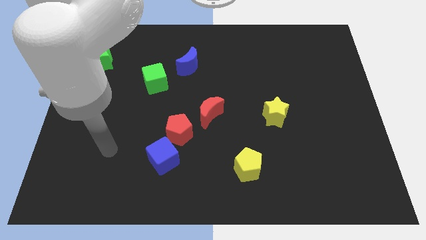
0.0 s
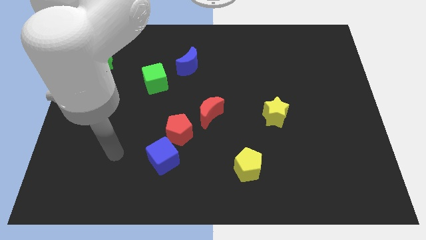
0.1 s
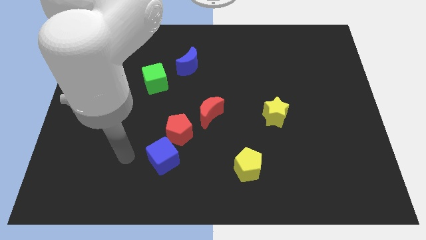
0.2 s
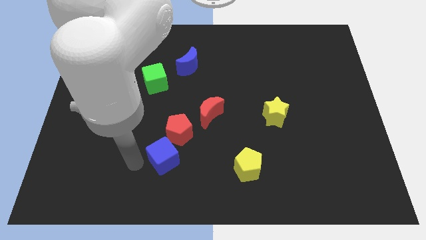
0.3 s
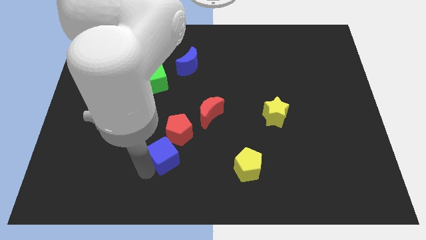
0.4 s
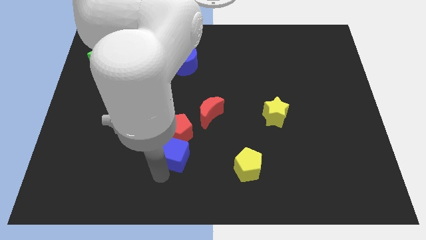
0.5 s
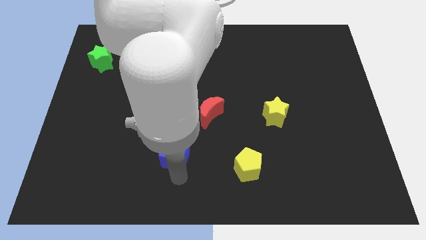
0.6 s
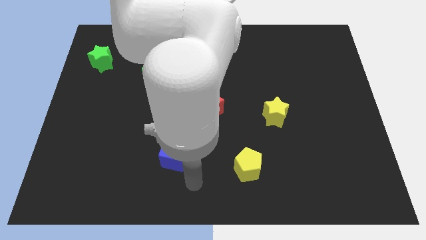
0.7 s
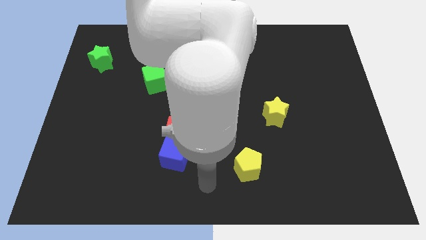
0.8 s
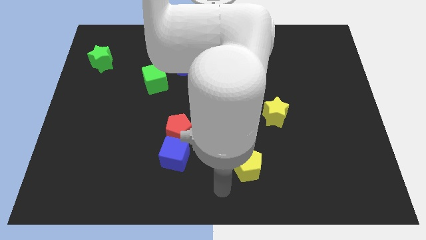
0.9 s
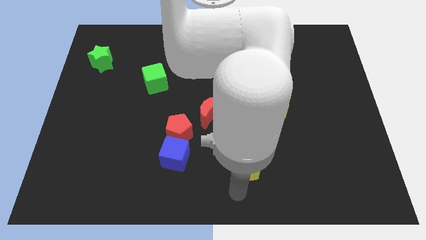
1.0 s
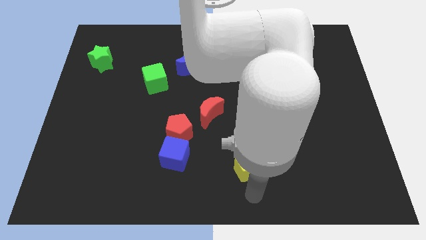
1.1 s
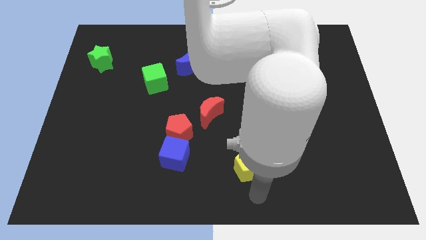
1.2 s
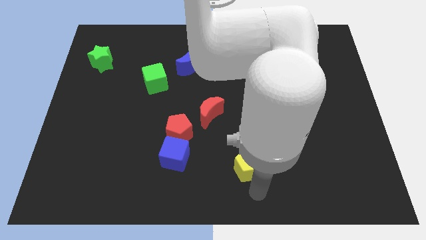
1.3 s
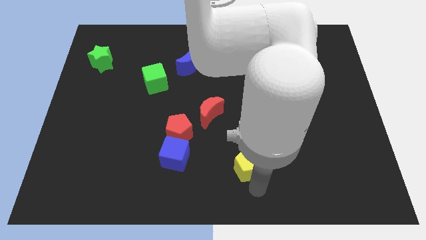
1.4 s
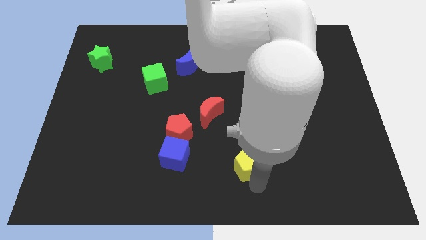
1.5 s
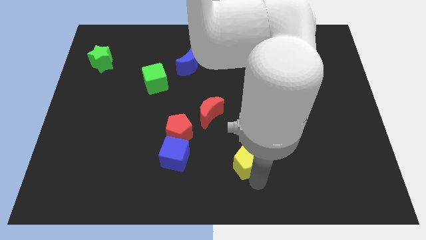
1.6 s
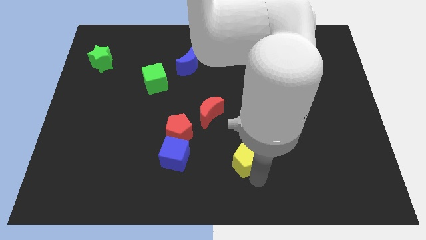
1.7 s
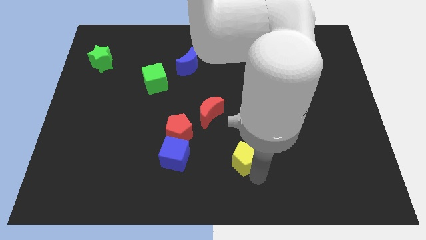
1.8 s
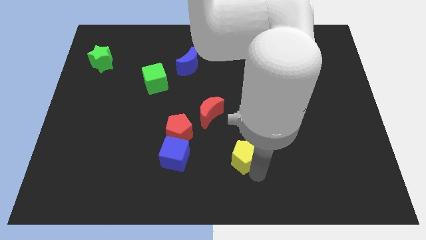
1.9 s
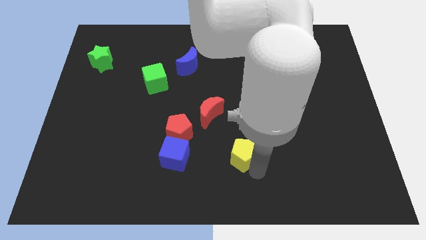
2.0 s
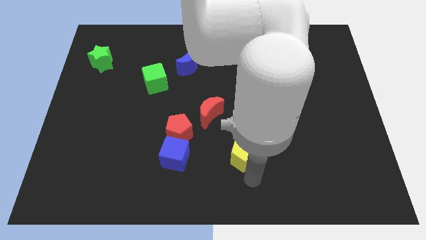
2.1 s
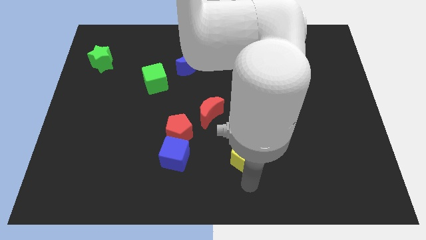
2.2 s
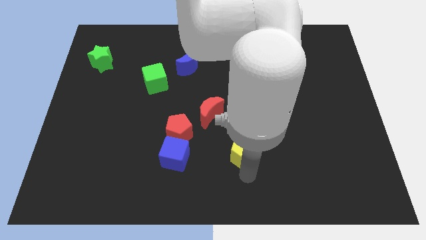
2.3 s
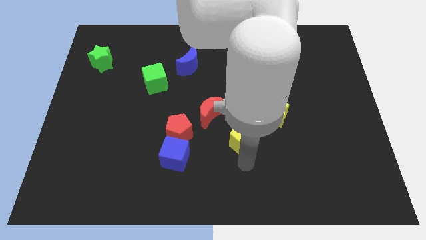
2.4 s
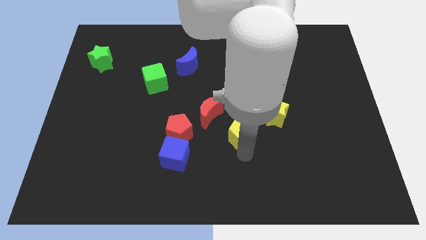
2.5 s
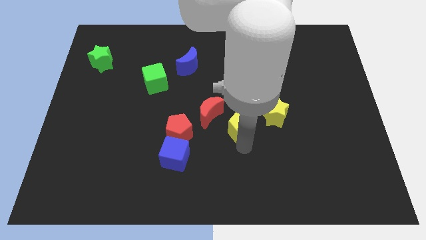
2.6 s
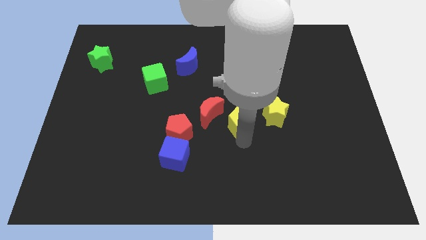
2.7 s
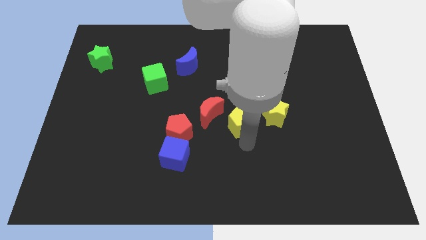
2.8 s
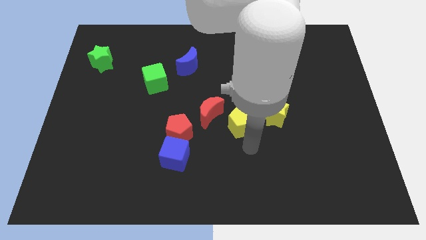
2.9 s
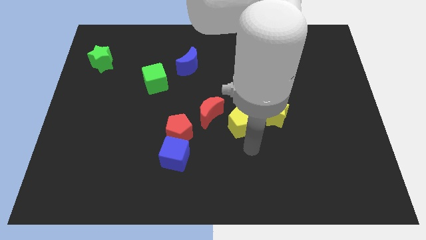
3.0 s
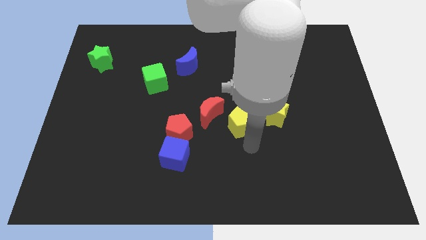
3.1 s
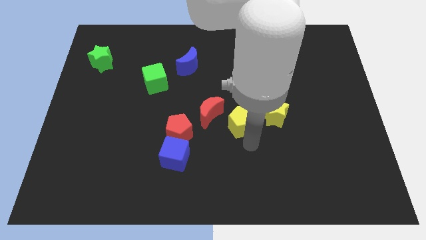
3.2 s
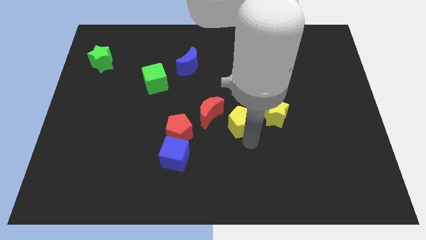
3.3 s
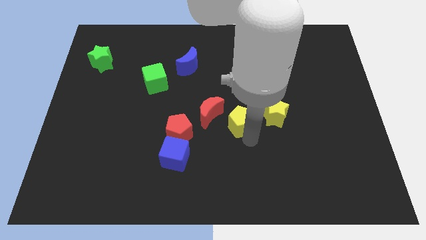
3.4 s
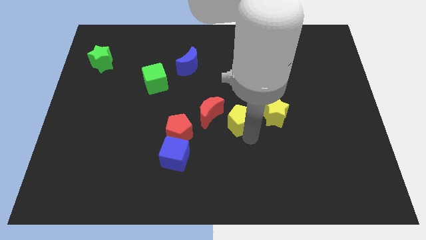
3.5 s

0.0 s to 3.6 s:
slightly push the yellow pentagon upwards and left

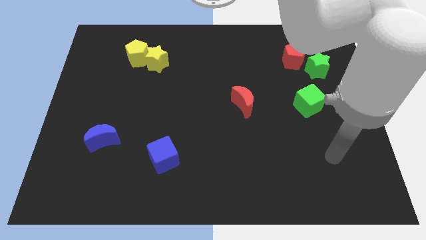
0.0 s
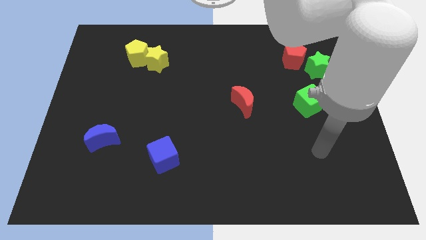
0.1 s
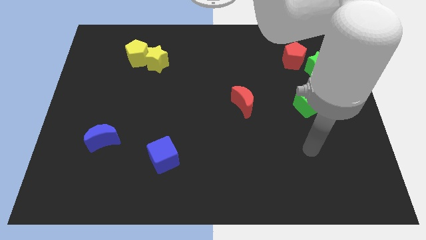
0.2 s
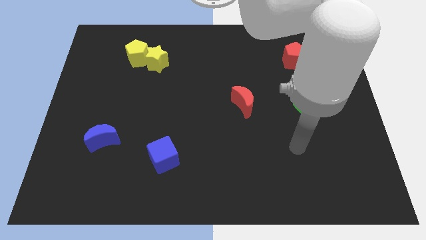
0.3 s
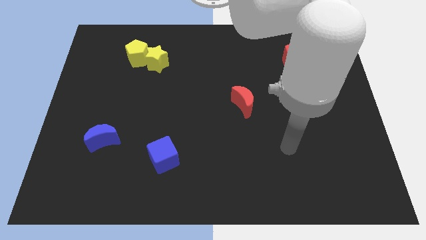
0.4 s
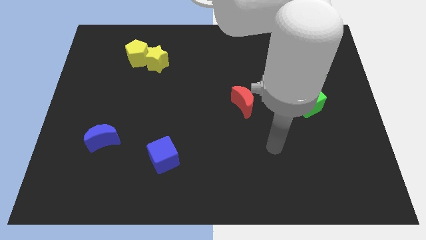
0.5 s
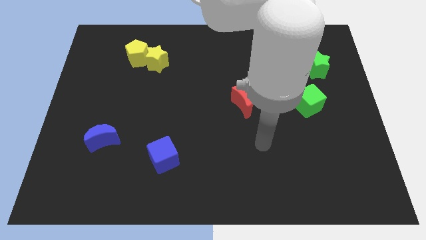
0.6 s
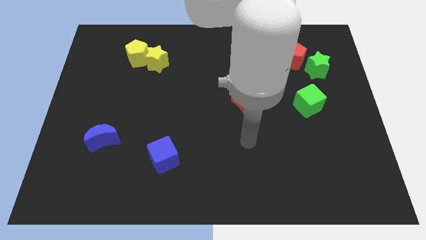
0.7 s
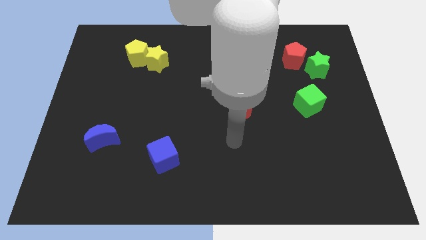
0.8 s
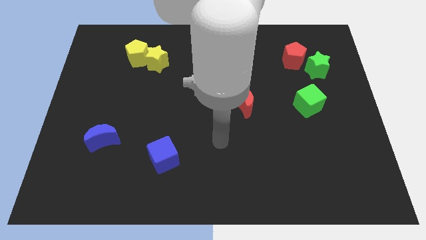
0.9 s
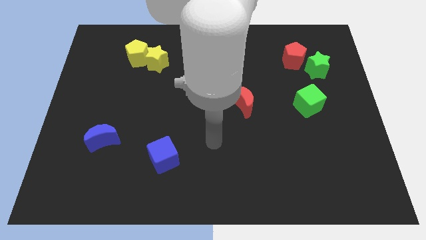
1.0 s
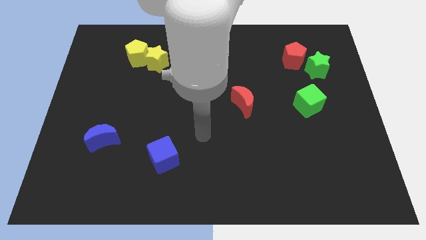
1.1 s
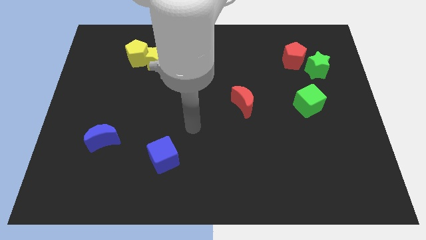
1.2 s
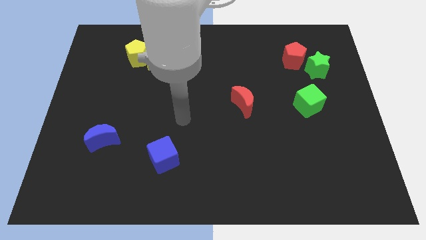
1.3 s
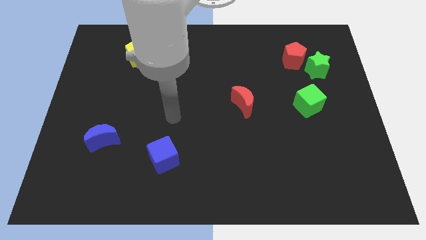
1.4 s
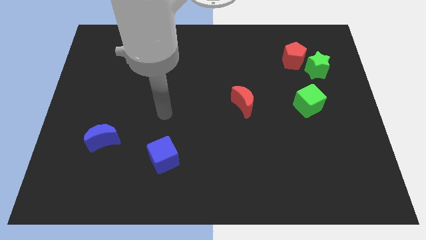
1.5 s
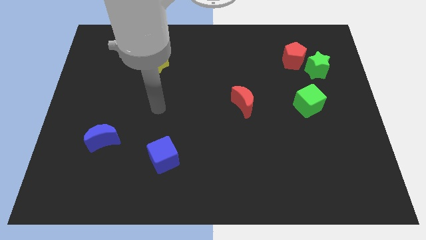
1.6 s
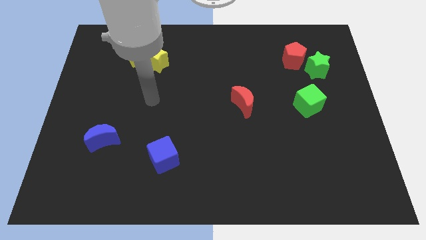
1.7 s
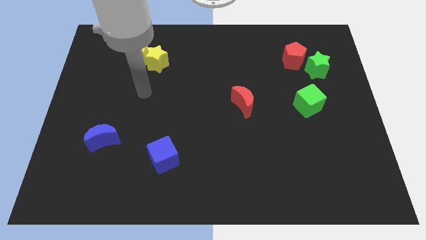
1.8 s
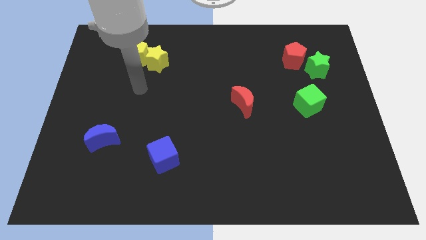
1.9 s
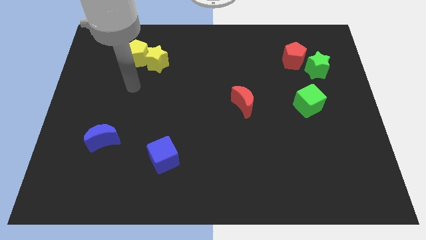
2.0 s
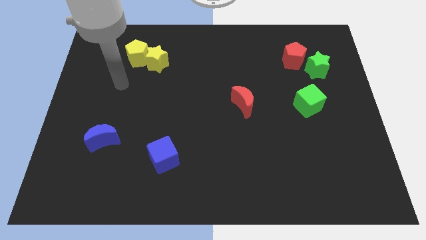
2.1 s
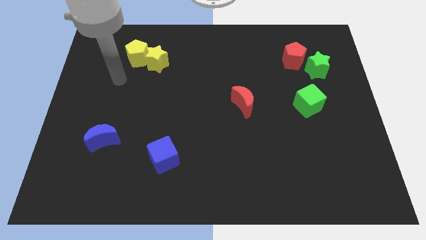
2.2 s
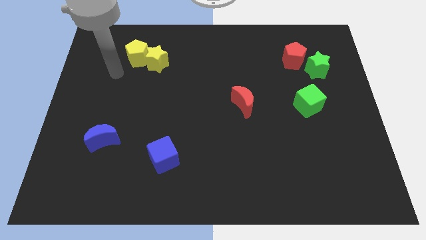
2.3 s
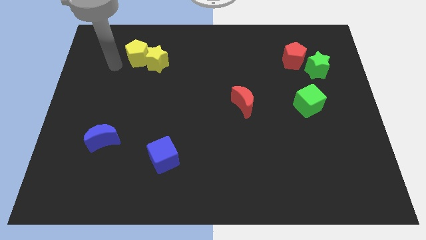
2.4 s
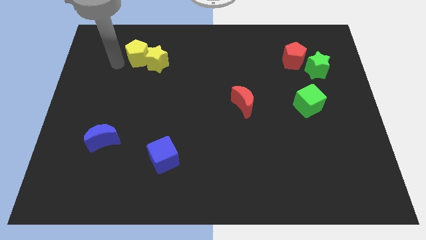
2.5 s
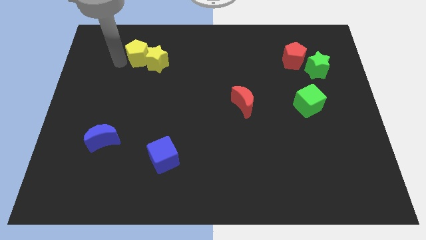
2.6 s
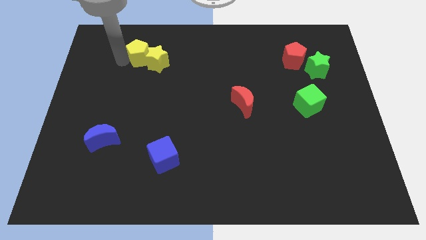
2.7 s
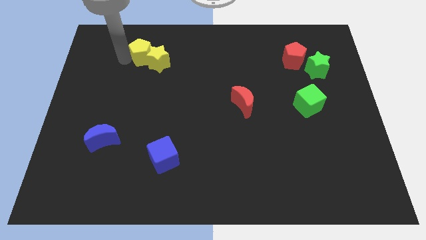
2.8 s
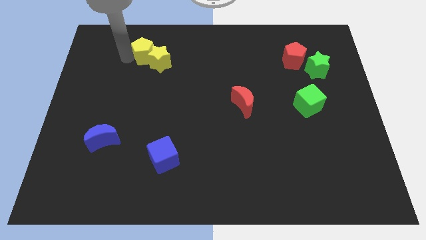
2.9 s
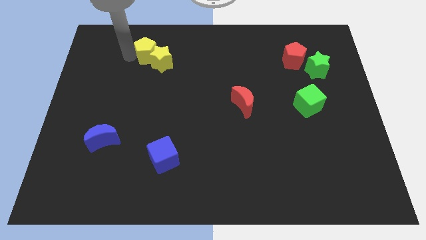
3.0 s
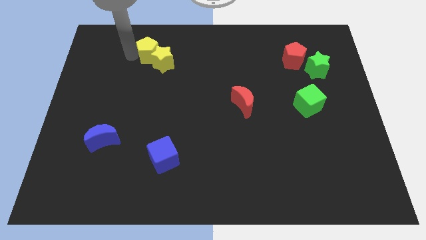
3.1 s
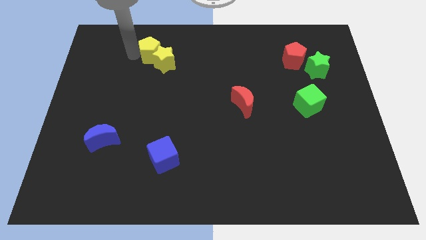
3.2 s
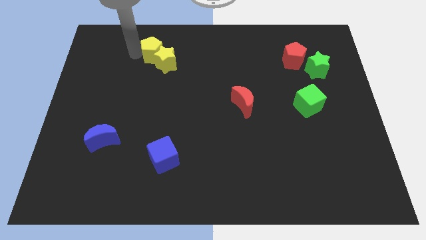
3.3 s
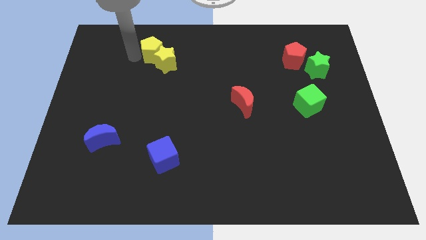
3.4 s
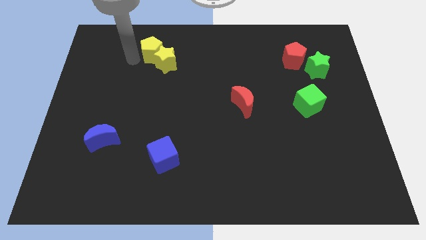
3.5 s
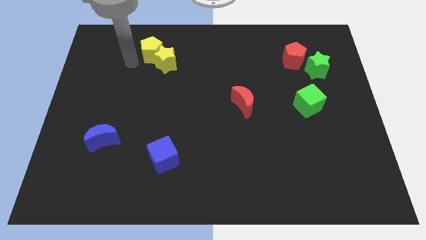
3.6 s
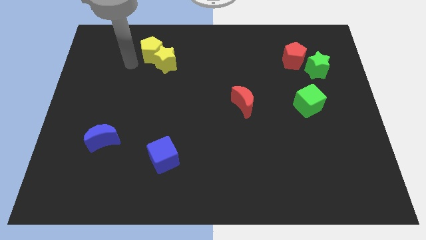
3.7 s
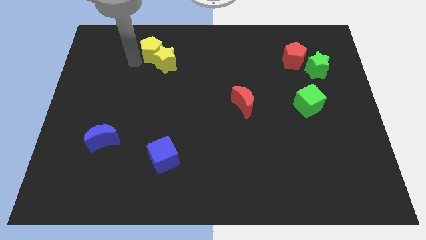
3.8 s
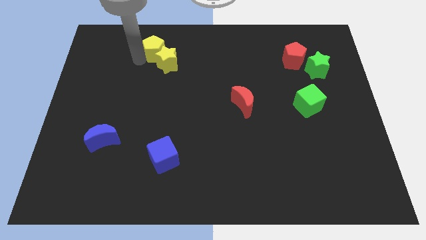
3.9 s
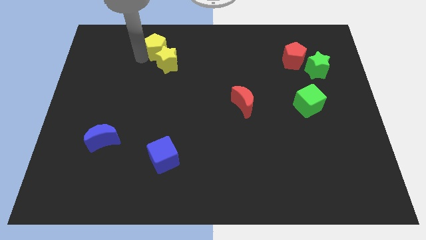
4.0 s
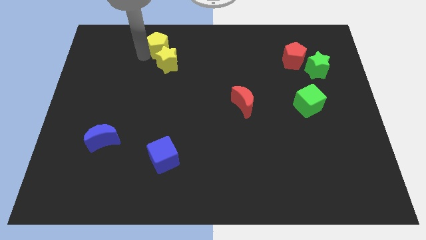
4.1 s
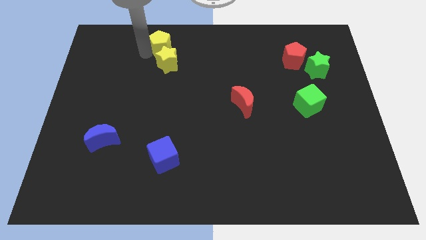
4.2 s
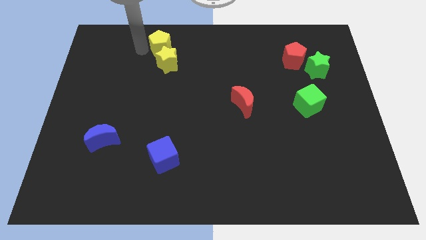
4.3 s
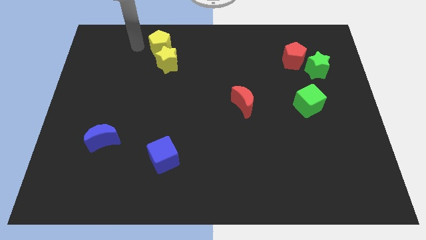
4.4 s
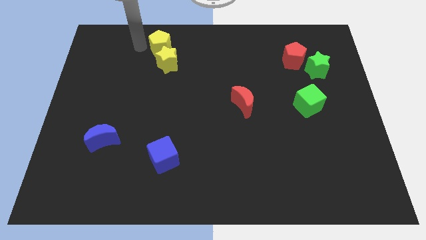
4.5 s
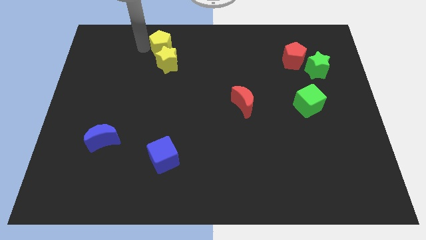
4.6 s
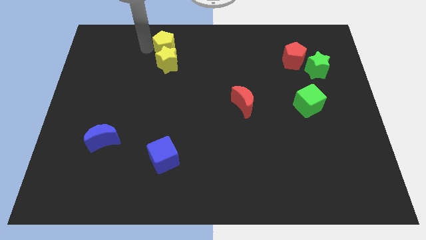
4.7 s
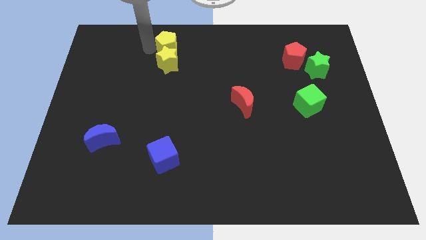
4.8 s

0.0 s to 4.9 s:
slide the yellow pentagon somewhat to the right
